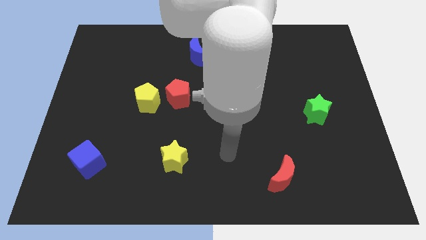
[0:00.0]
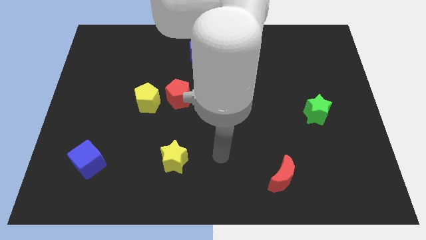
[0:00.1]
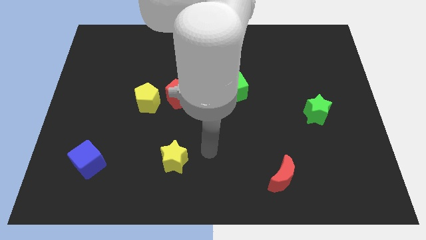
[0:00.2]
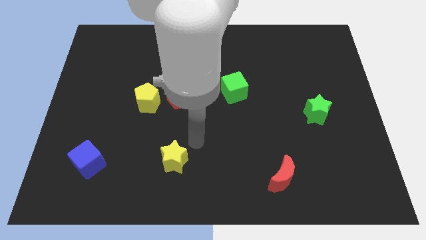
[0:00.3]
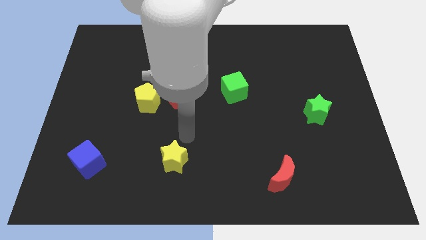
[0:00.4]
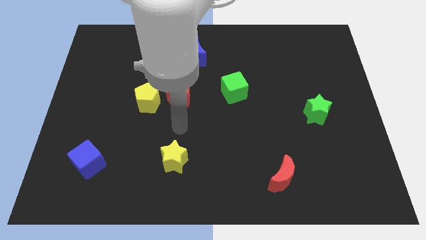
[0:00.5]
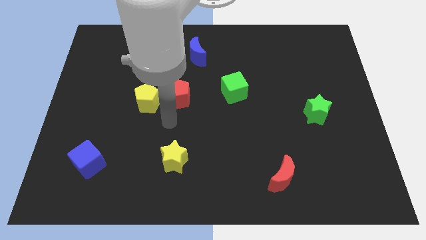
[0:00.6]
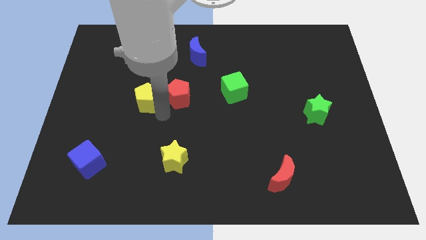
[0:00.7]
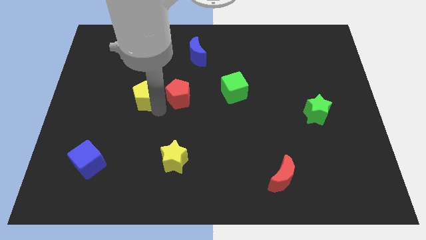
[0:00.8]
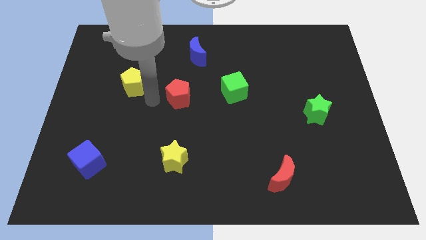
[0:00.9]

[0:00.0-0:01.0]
move the red pentagon away from the yellow pentagon

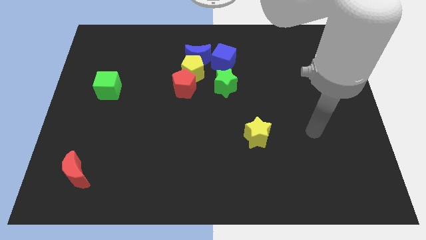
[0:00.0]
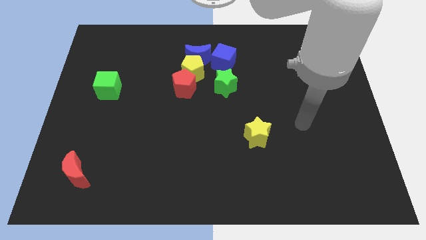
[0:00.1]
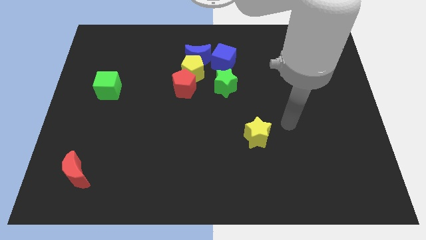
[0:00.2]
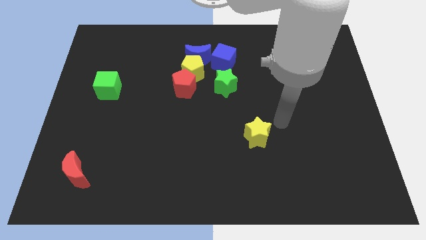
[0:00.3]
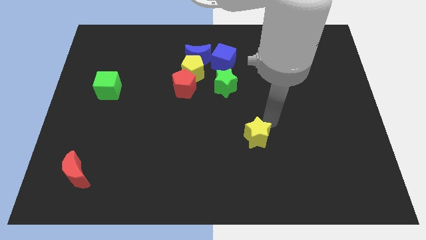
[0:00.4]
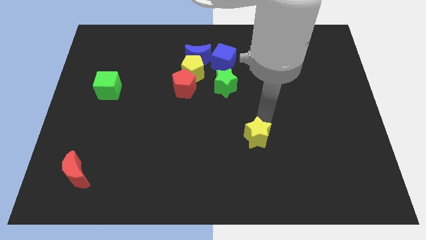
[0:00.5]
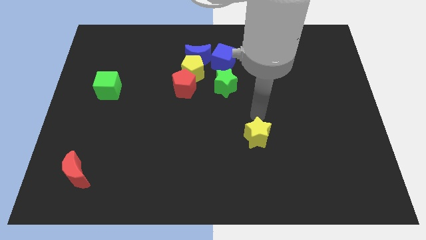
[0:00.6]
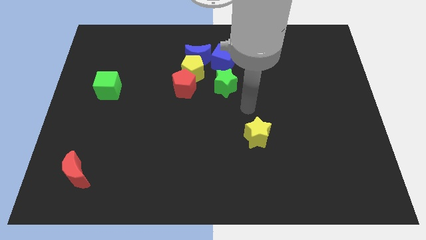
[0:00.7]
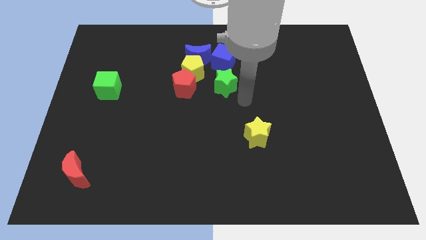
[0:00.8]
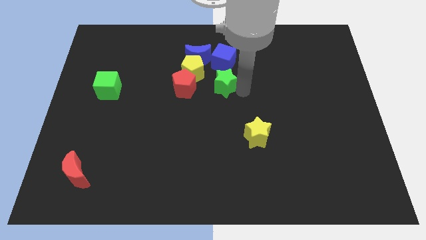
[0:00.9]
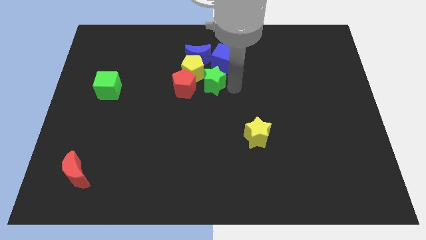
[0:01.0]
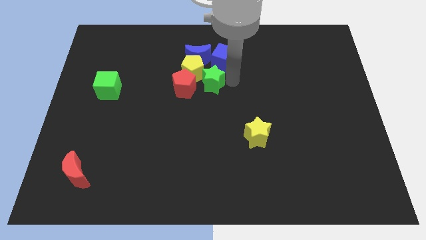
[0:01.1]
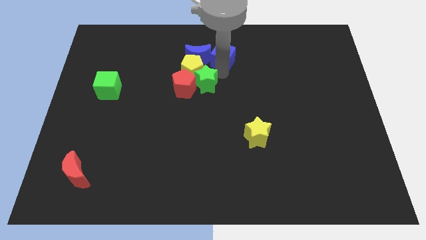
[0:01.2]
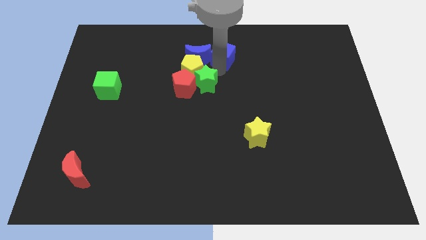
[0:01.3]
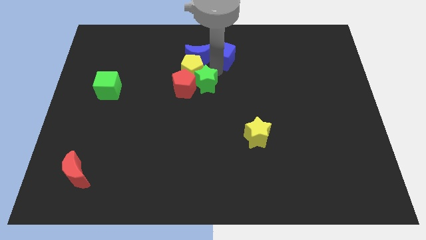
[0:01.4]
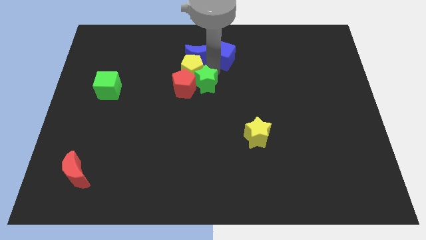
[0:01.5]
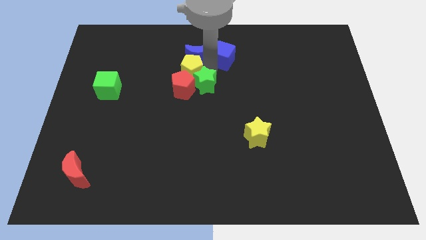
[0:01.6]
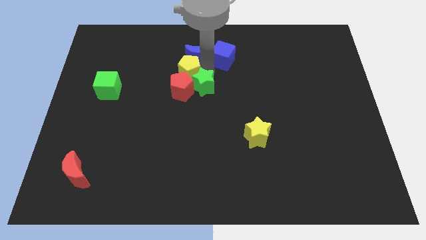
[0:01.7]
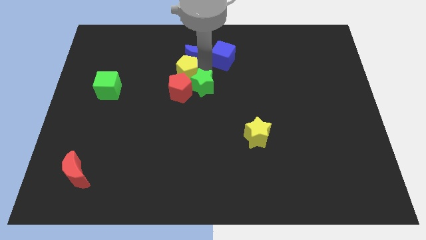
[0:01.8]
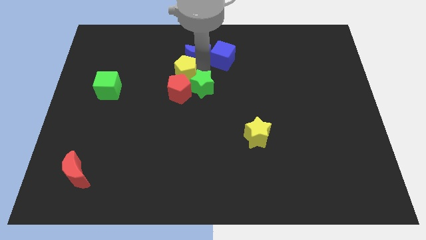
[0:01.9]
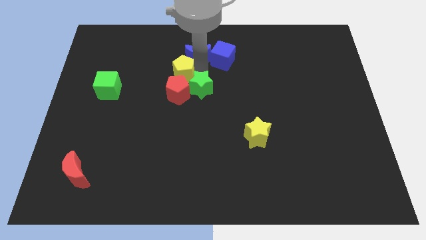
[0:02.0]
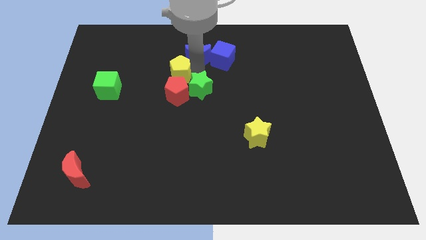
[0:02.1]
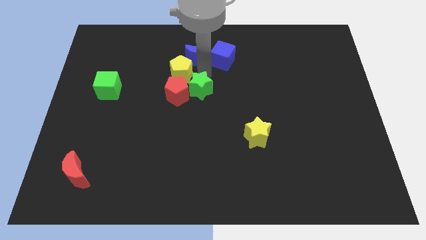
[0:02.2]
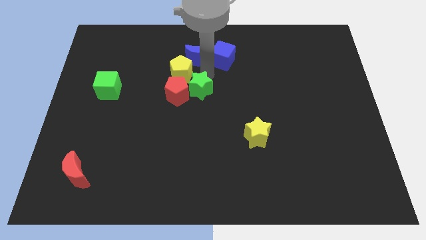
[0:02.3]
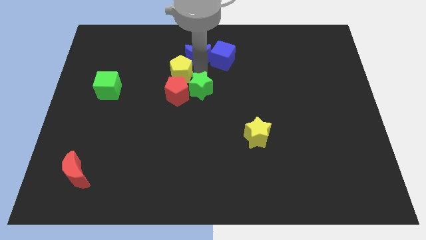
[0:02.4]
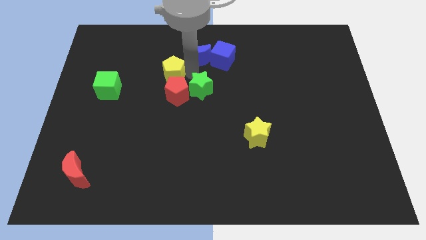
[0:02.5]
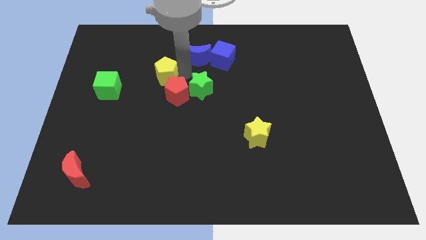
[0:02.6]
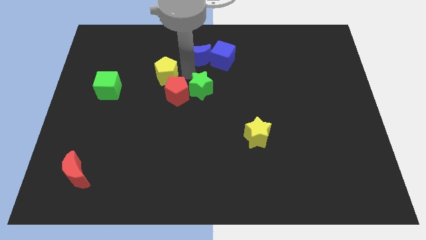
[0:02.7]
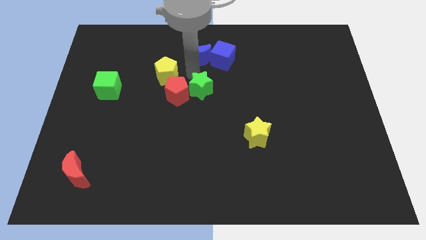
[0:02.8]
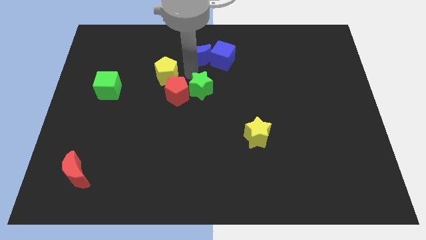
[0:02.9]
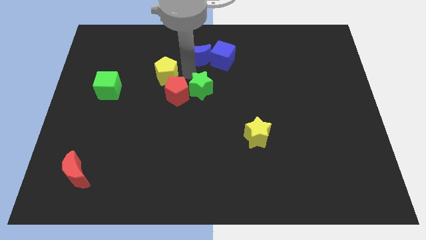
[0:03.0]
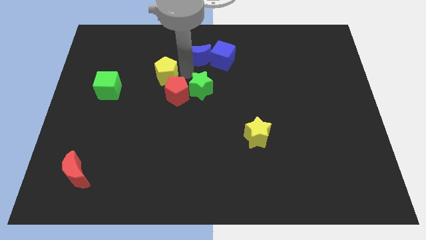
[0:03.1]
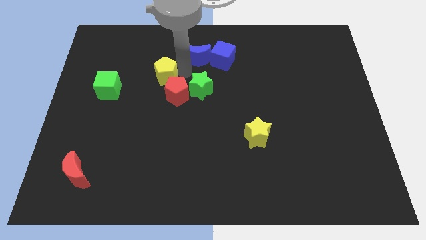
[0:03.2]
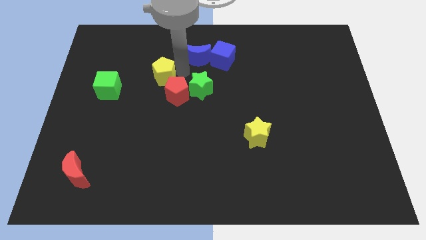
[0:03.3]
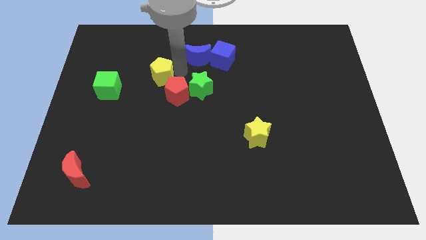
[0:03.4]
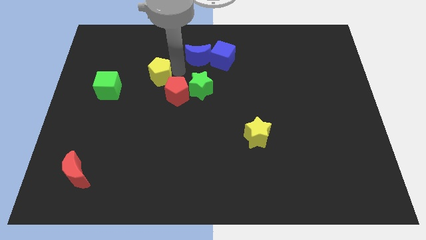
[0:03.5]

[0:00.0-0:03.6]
separate the yellow pentagon from the clump

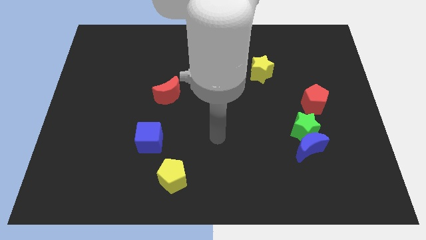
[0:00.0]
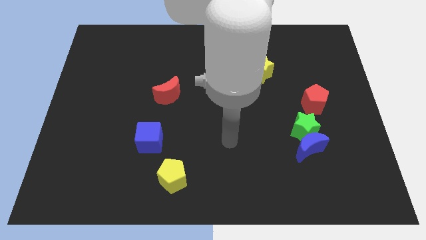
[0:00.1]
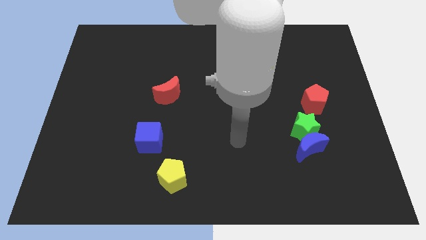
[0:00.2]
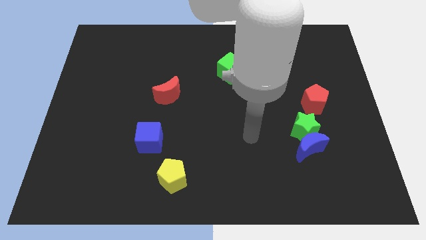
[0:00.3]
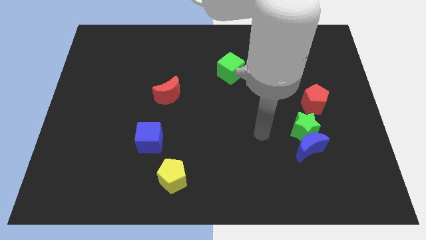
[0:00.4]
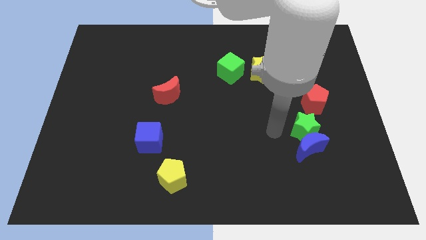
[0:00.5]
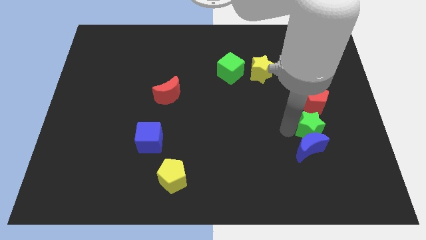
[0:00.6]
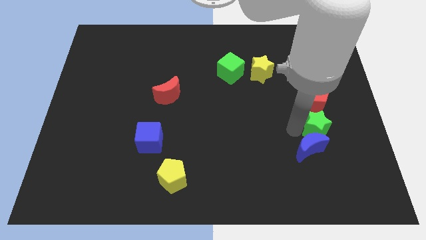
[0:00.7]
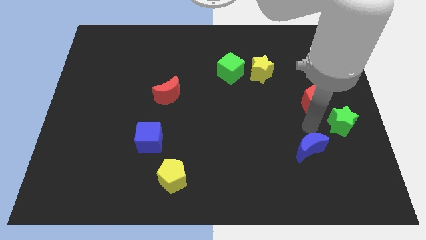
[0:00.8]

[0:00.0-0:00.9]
move the blue moon away from the green star

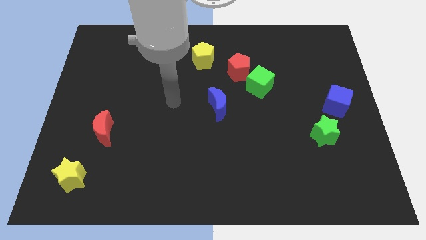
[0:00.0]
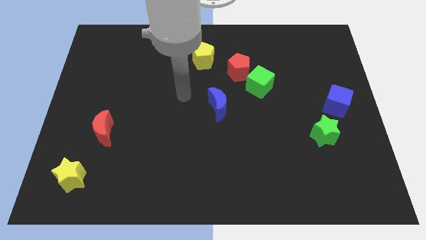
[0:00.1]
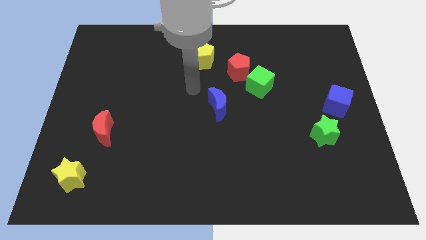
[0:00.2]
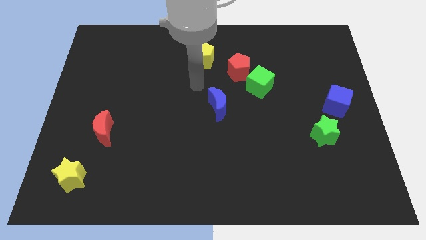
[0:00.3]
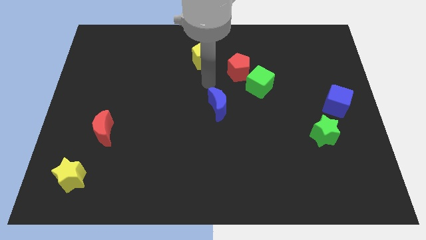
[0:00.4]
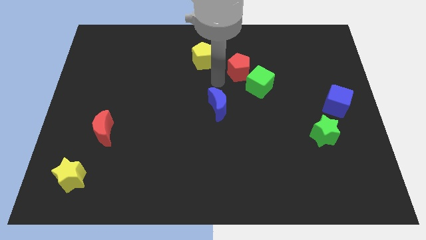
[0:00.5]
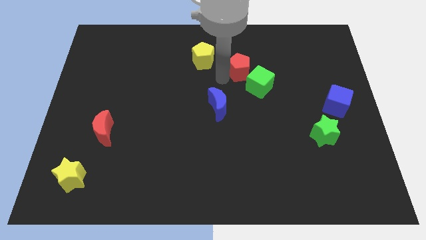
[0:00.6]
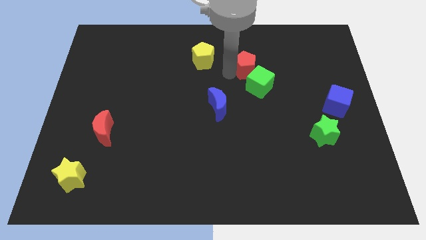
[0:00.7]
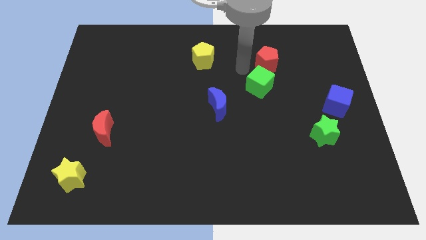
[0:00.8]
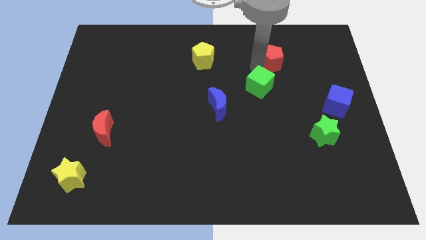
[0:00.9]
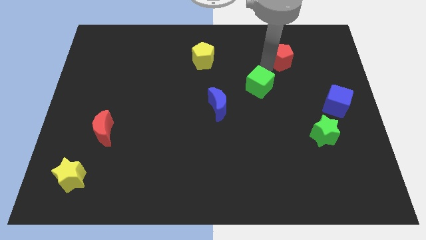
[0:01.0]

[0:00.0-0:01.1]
move the green cube away from the red pentagon

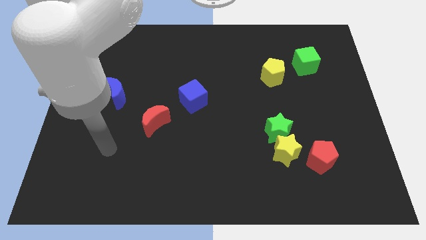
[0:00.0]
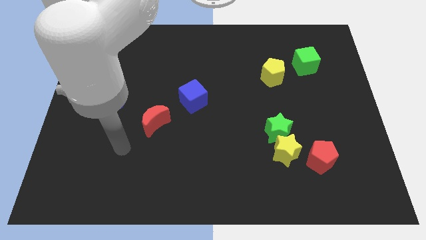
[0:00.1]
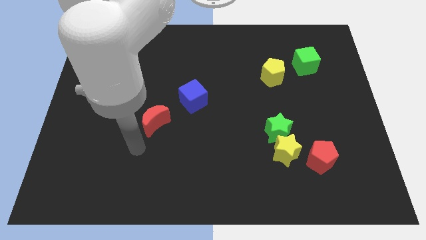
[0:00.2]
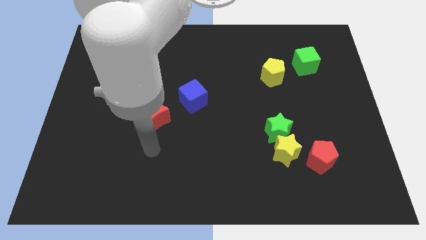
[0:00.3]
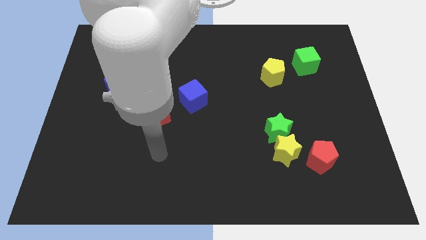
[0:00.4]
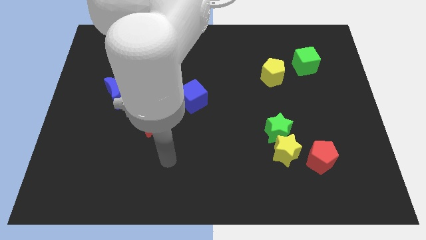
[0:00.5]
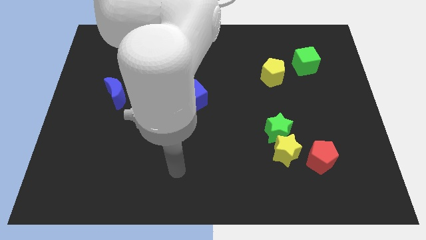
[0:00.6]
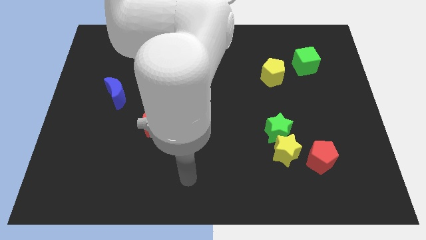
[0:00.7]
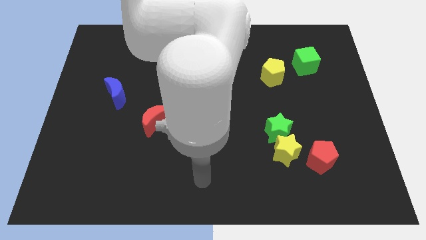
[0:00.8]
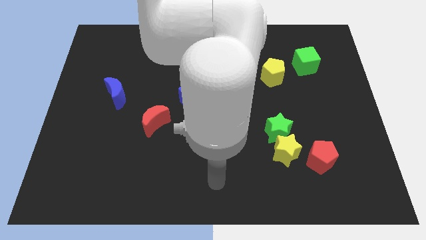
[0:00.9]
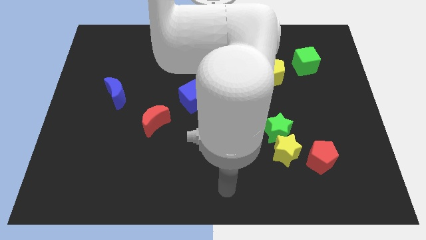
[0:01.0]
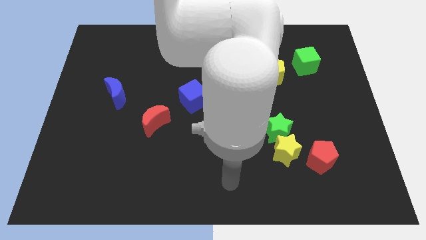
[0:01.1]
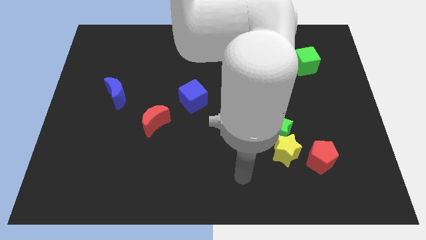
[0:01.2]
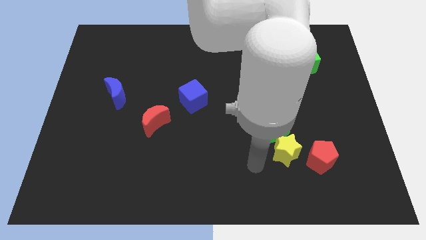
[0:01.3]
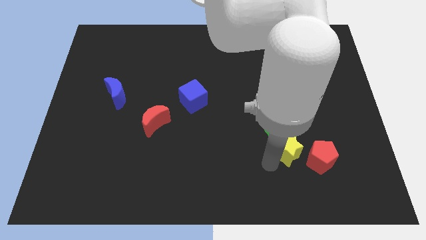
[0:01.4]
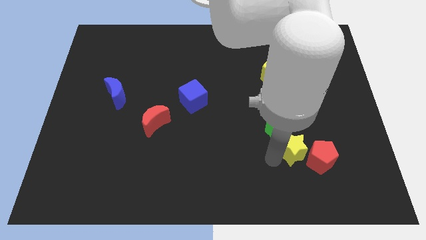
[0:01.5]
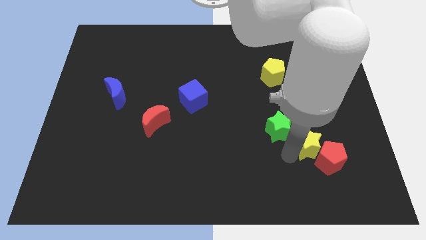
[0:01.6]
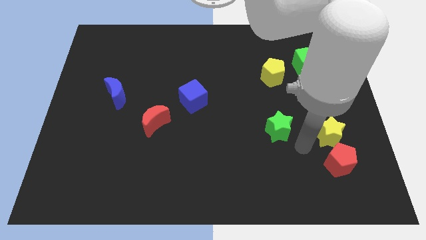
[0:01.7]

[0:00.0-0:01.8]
pull the green star apart from the yellow star

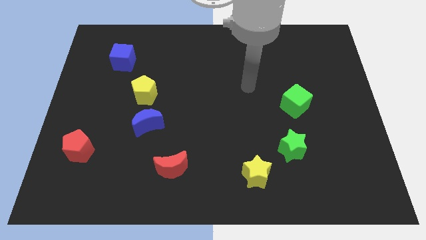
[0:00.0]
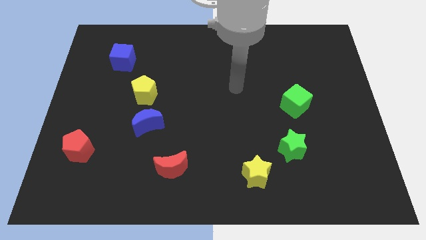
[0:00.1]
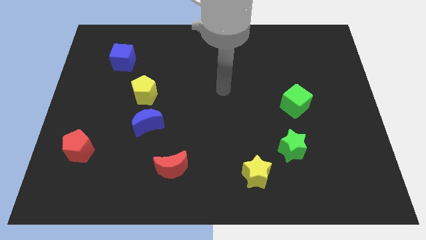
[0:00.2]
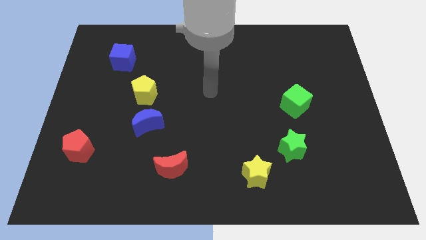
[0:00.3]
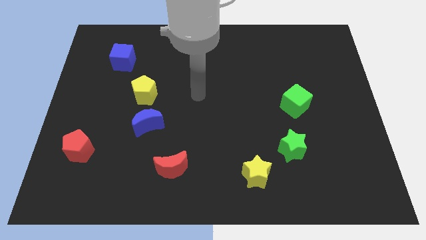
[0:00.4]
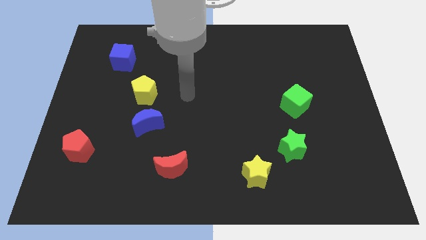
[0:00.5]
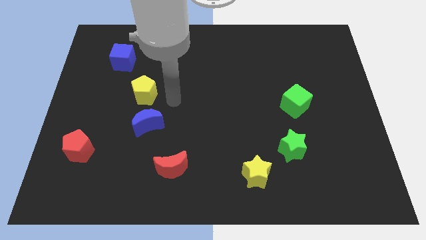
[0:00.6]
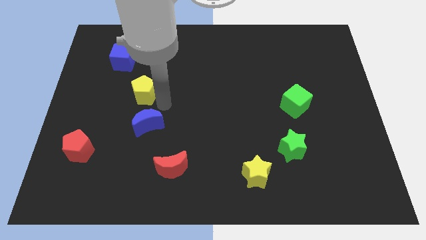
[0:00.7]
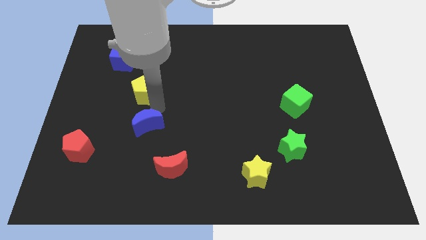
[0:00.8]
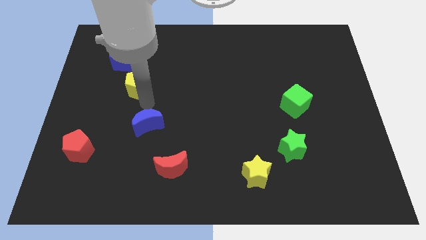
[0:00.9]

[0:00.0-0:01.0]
pull the blue moon apart from the yellow pentagon
